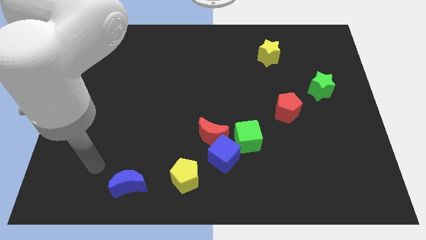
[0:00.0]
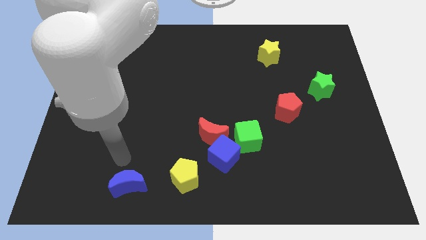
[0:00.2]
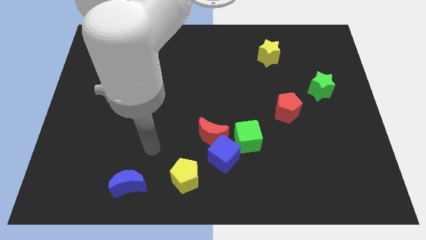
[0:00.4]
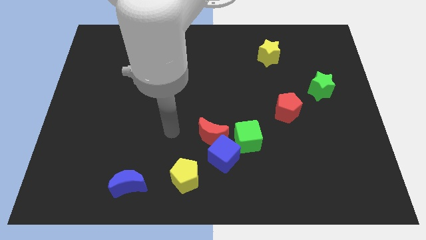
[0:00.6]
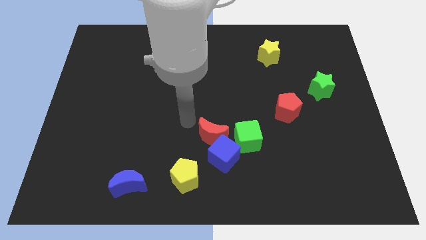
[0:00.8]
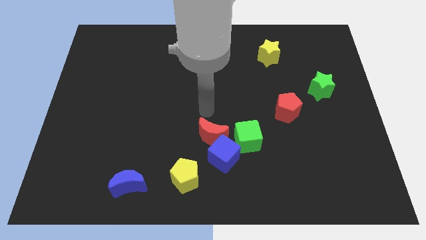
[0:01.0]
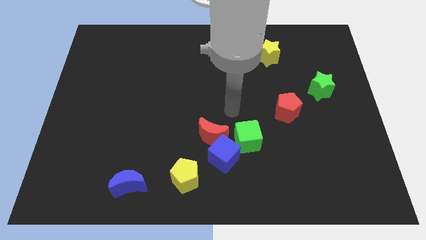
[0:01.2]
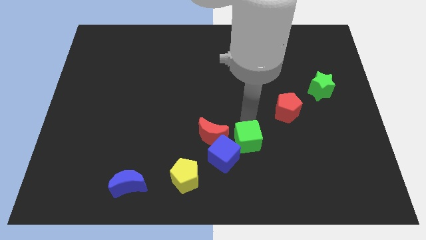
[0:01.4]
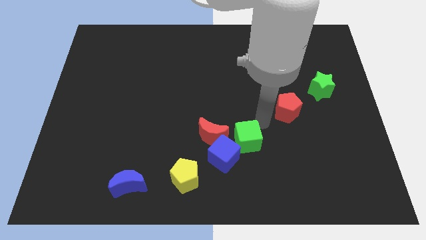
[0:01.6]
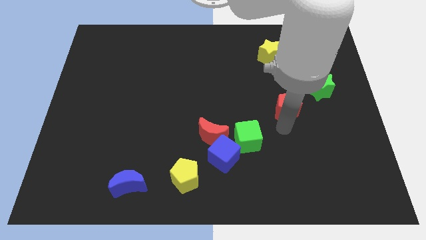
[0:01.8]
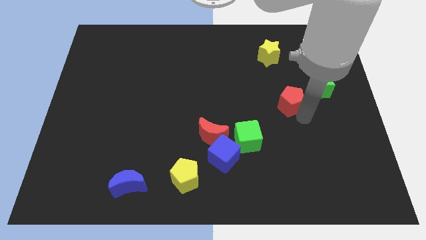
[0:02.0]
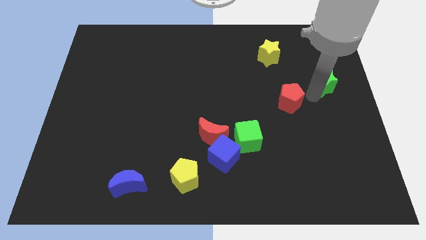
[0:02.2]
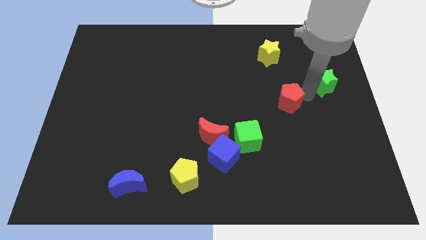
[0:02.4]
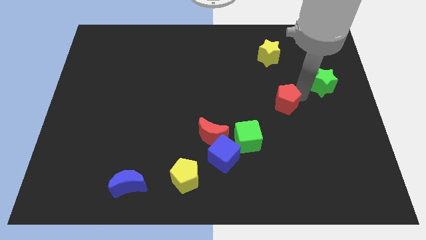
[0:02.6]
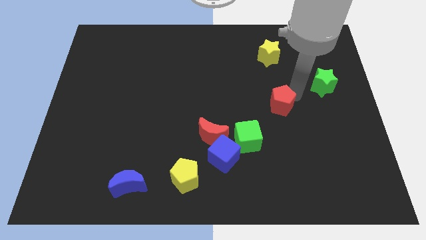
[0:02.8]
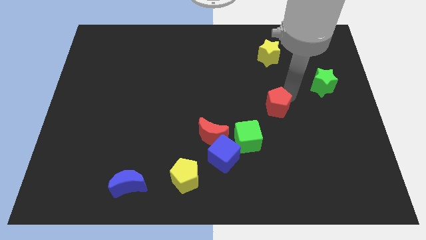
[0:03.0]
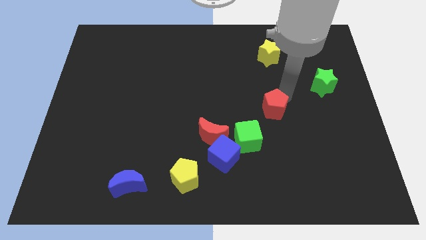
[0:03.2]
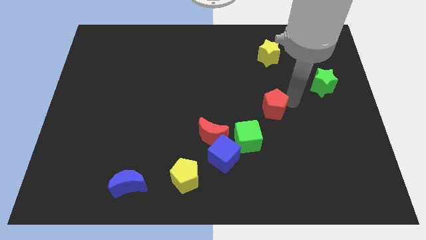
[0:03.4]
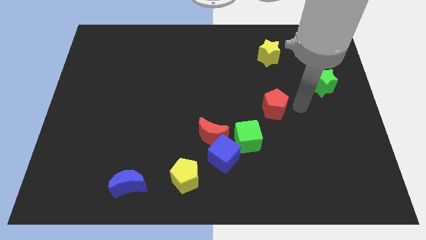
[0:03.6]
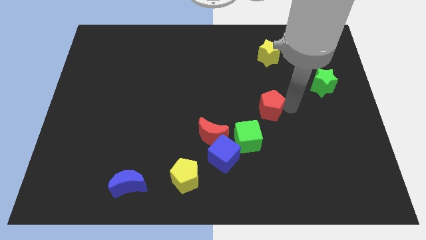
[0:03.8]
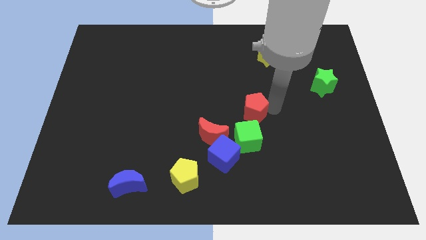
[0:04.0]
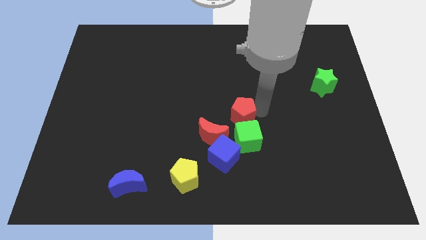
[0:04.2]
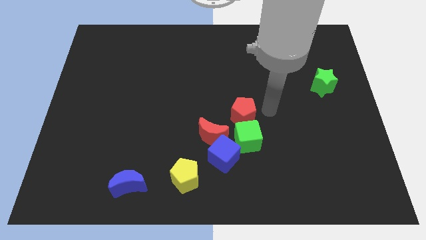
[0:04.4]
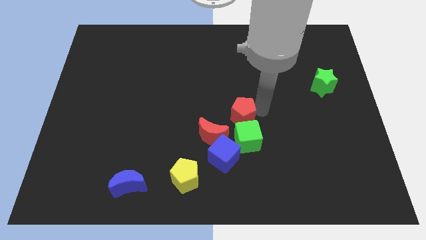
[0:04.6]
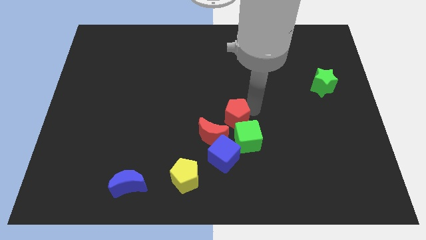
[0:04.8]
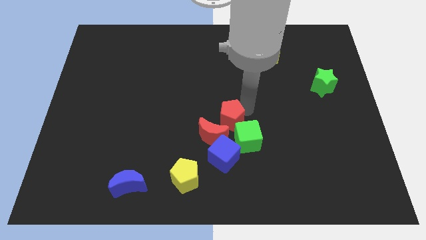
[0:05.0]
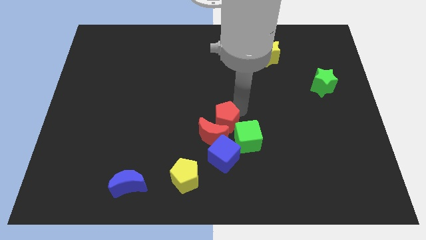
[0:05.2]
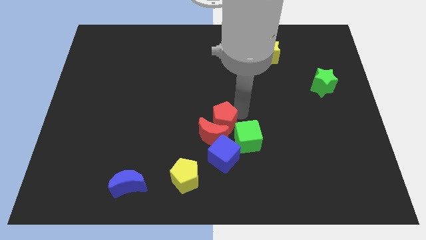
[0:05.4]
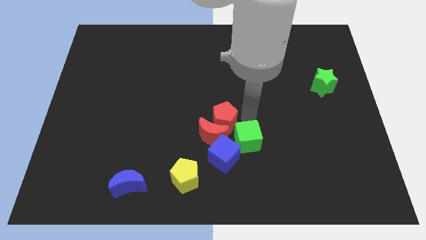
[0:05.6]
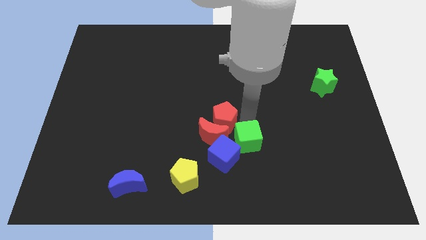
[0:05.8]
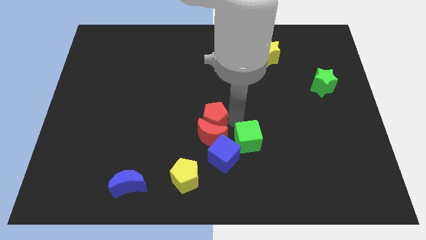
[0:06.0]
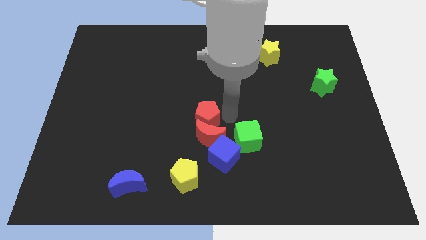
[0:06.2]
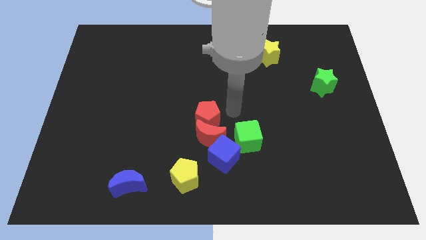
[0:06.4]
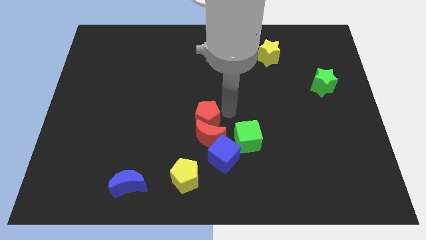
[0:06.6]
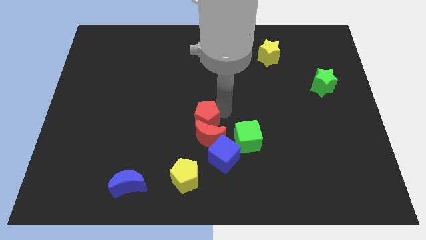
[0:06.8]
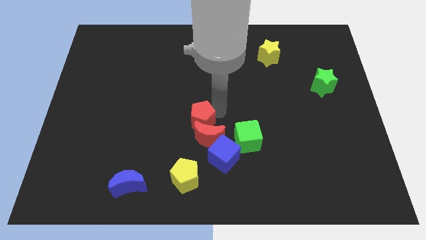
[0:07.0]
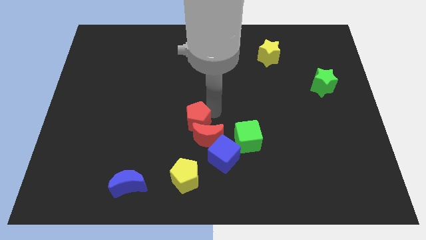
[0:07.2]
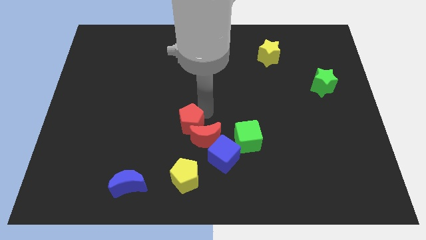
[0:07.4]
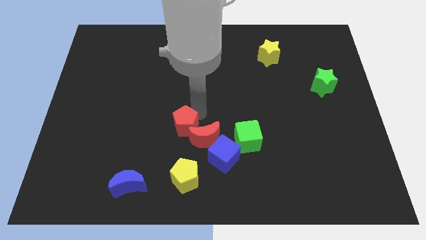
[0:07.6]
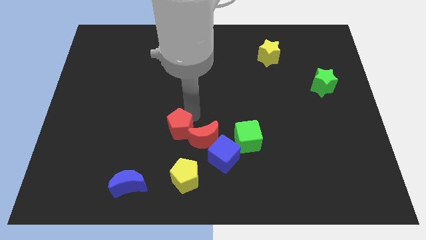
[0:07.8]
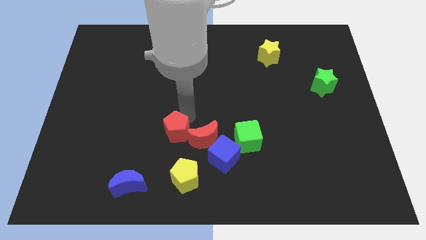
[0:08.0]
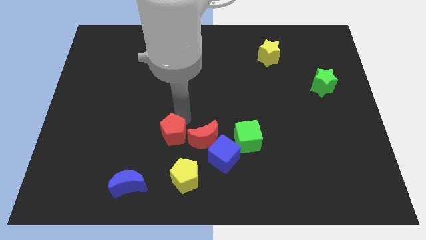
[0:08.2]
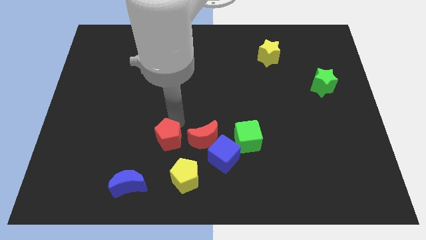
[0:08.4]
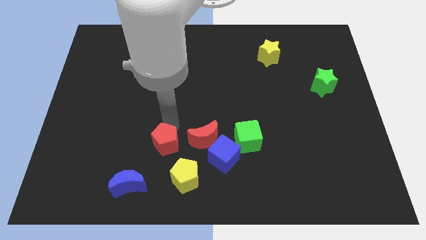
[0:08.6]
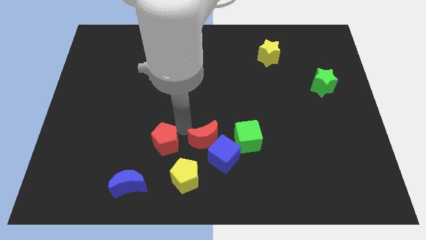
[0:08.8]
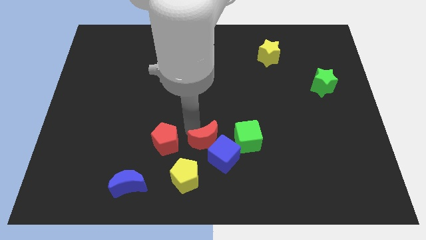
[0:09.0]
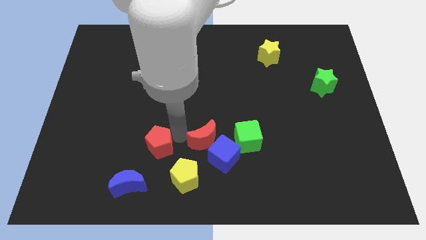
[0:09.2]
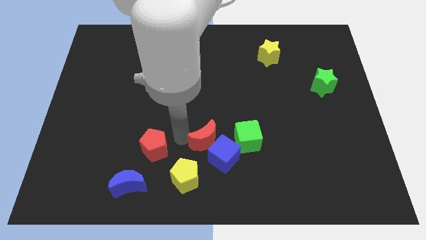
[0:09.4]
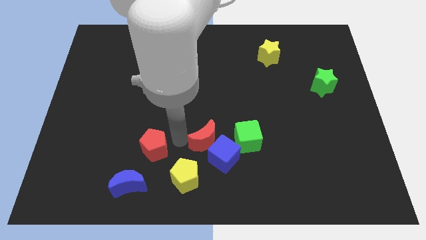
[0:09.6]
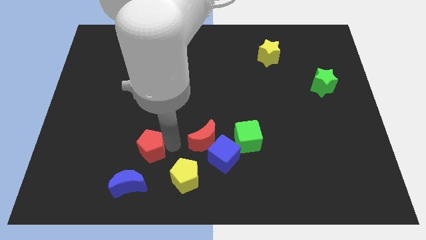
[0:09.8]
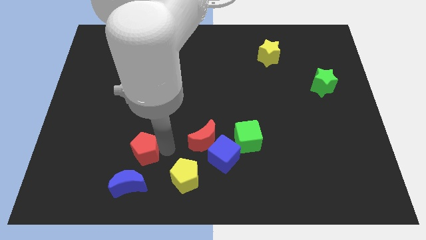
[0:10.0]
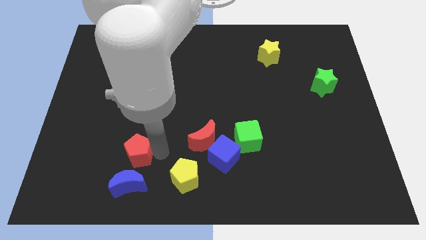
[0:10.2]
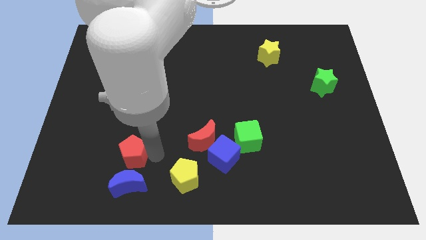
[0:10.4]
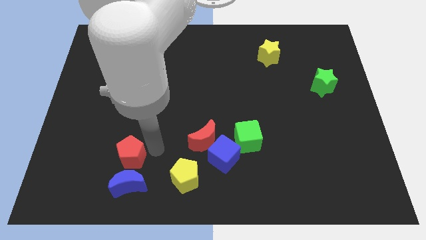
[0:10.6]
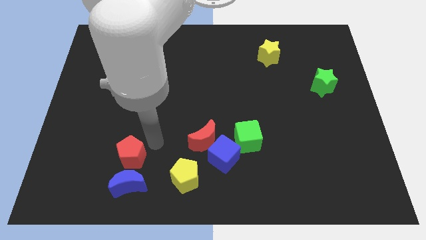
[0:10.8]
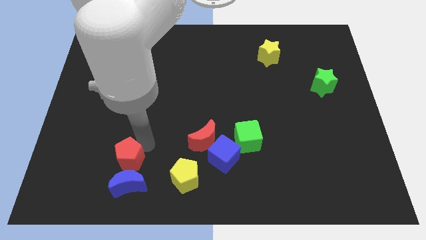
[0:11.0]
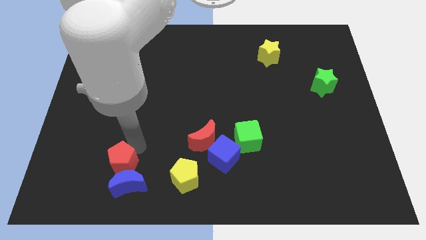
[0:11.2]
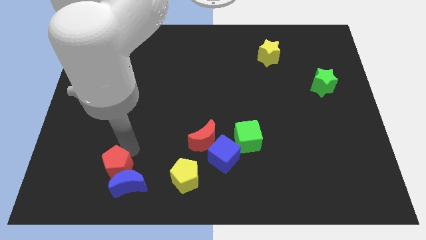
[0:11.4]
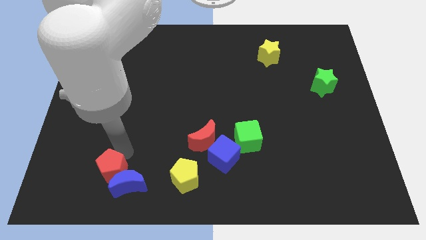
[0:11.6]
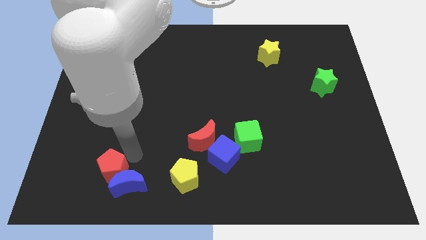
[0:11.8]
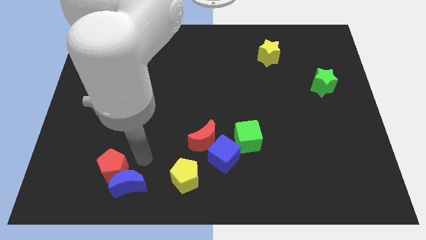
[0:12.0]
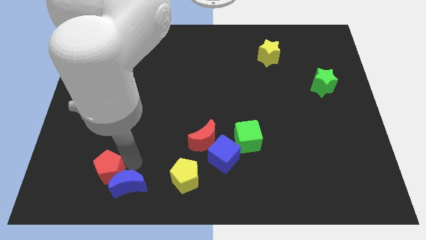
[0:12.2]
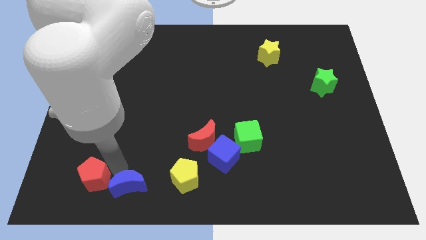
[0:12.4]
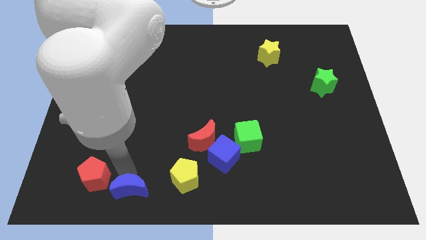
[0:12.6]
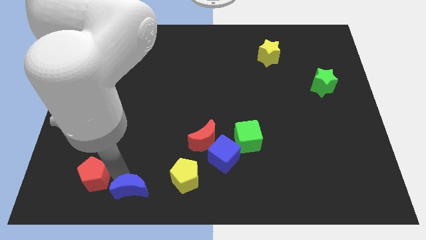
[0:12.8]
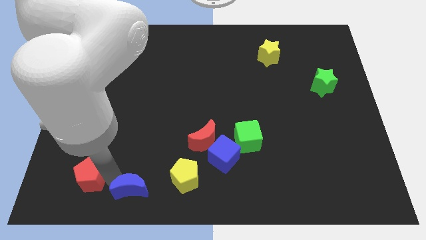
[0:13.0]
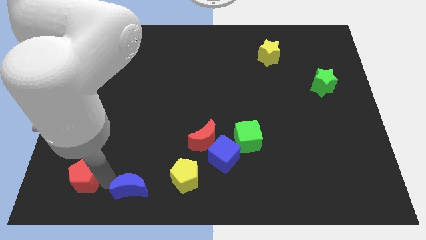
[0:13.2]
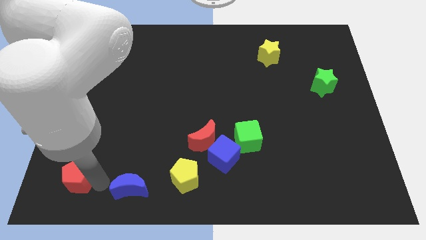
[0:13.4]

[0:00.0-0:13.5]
push the red pentagon to the lower left corner

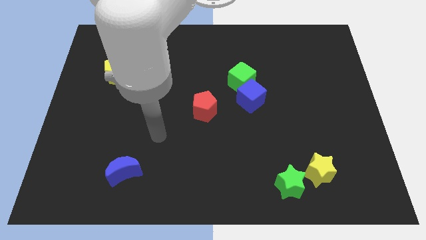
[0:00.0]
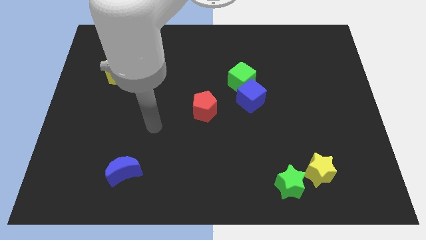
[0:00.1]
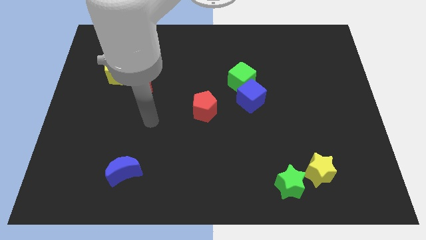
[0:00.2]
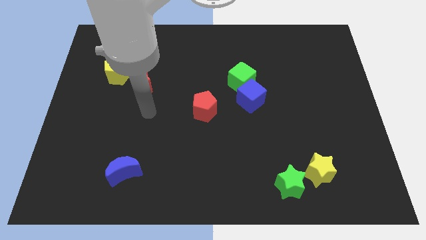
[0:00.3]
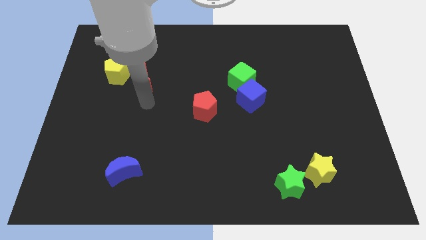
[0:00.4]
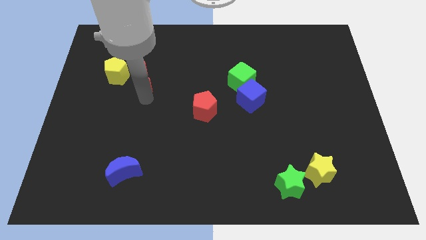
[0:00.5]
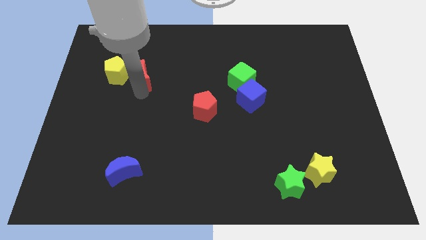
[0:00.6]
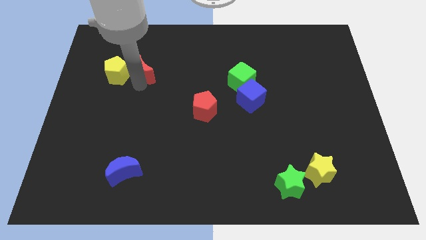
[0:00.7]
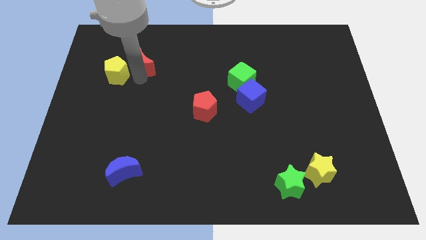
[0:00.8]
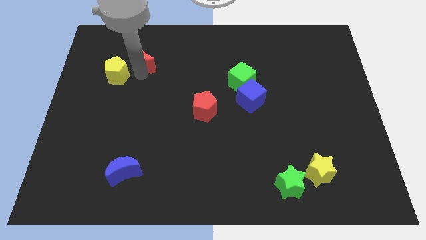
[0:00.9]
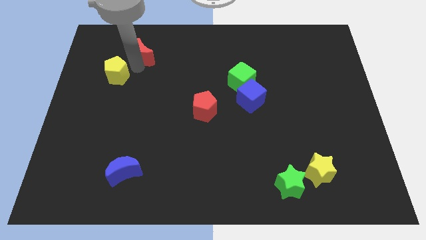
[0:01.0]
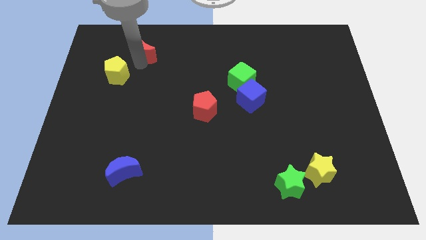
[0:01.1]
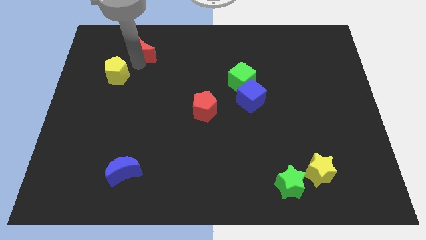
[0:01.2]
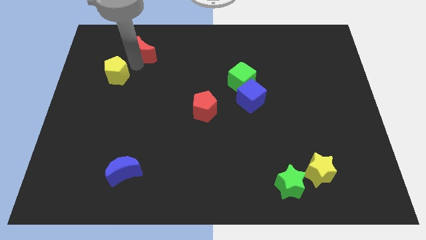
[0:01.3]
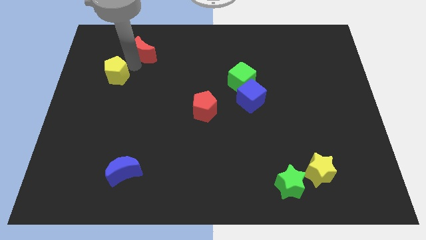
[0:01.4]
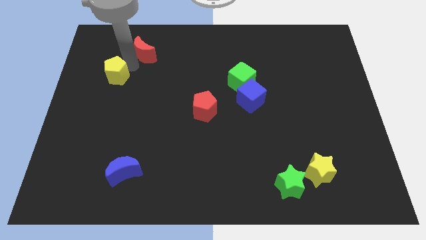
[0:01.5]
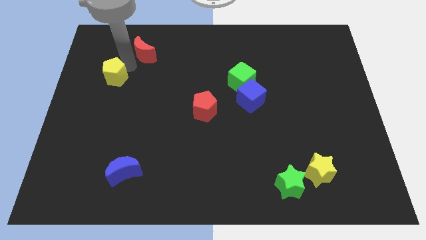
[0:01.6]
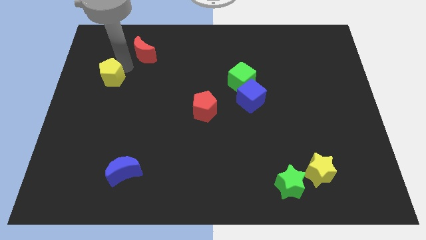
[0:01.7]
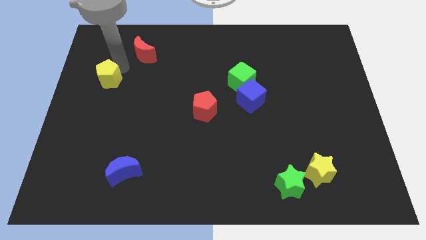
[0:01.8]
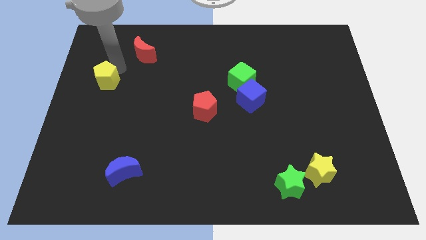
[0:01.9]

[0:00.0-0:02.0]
put the yellow pentagon to the left side
